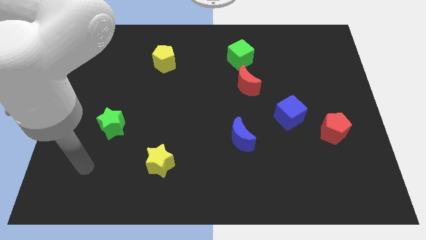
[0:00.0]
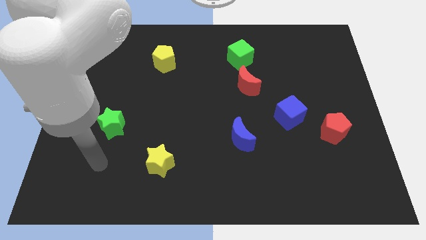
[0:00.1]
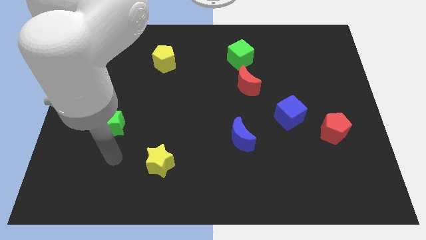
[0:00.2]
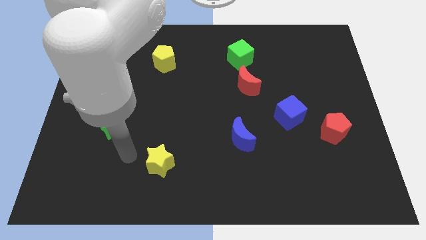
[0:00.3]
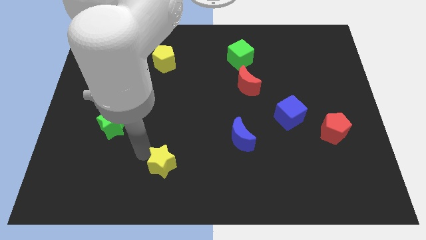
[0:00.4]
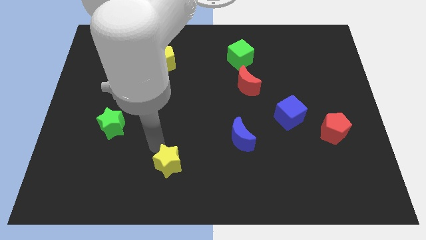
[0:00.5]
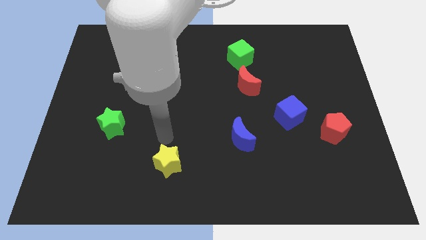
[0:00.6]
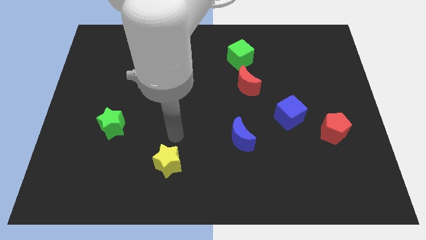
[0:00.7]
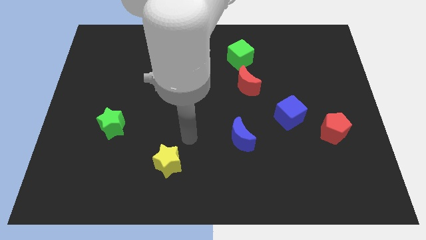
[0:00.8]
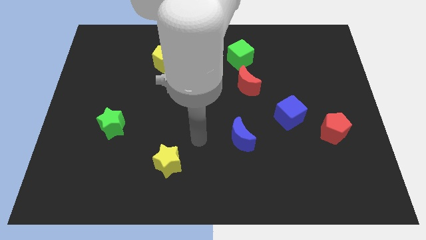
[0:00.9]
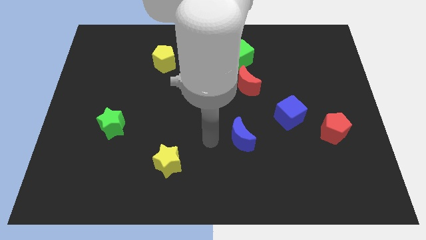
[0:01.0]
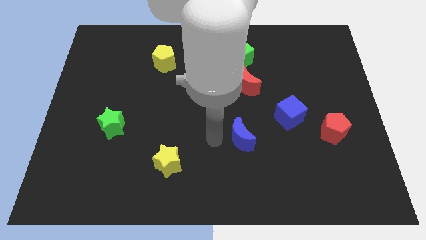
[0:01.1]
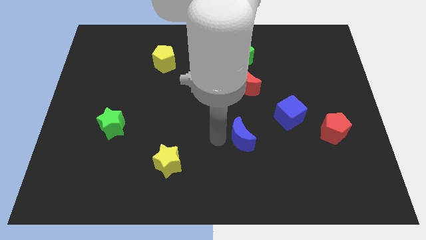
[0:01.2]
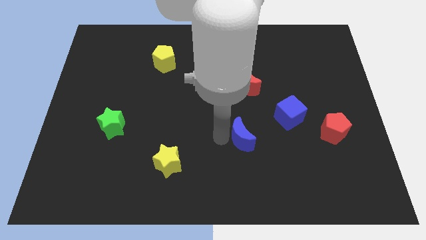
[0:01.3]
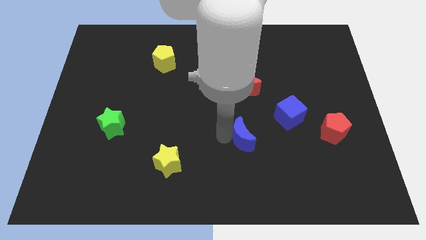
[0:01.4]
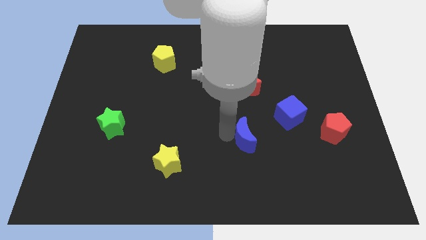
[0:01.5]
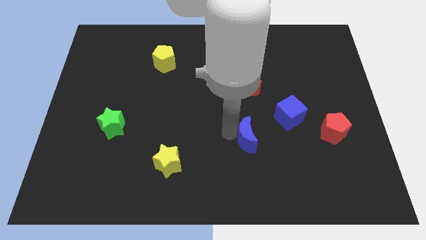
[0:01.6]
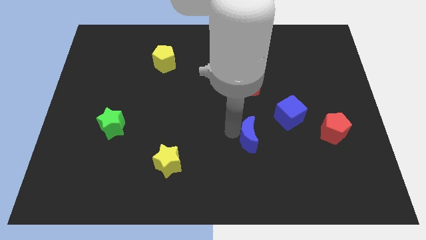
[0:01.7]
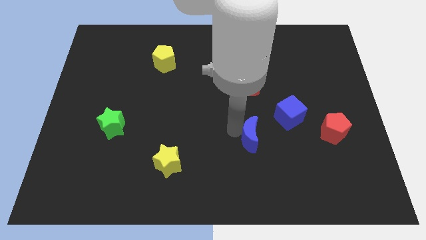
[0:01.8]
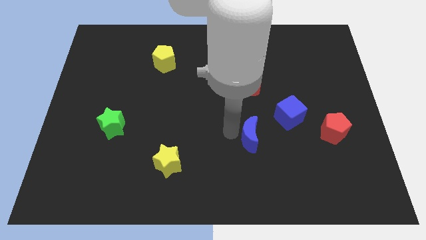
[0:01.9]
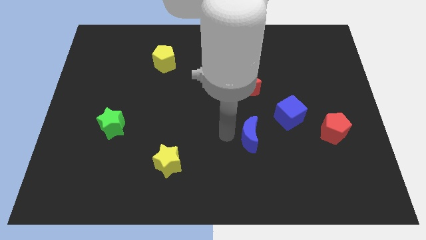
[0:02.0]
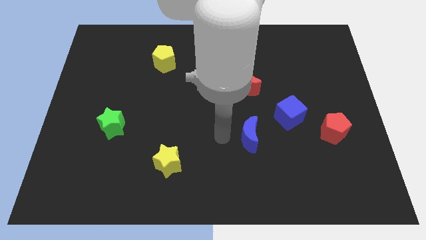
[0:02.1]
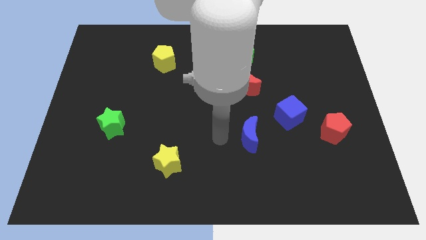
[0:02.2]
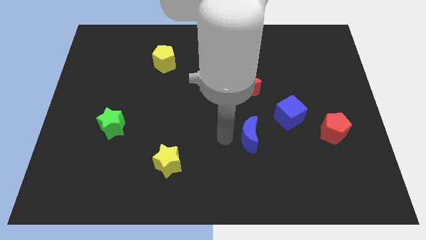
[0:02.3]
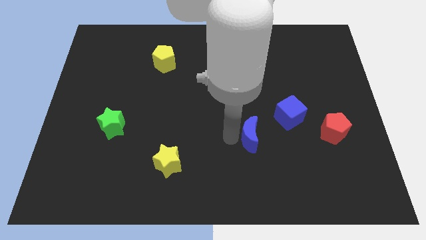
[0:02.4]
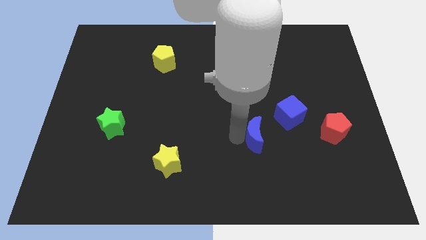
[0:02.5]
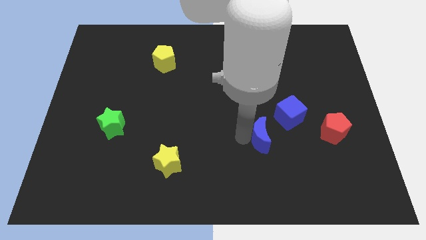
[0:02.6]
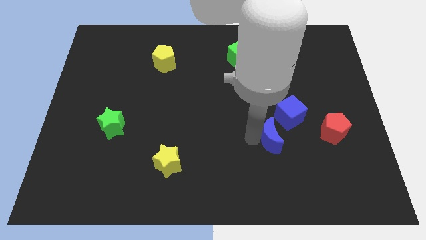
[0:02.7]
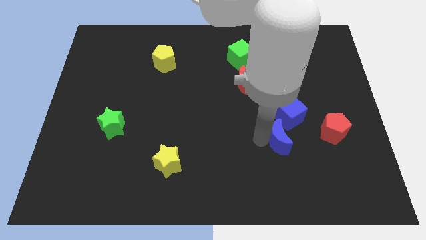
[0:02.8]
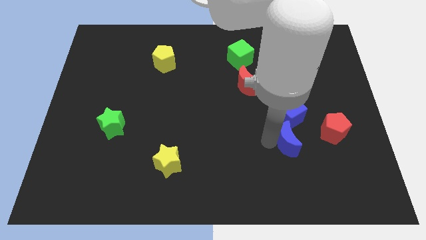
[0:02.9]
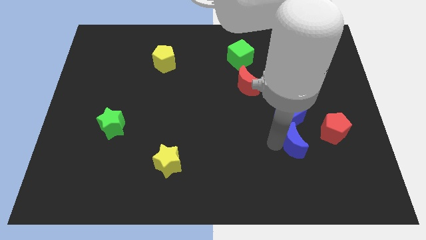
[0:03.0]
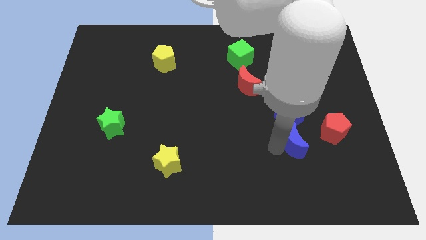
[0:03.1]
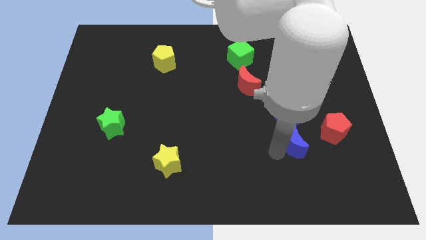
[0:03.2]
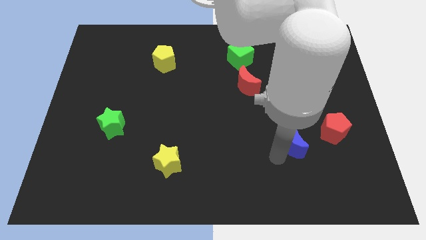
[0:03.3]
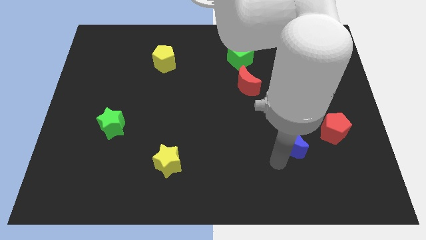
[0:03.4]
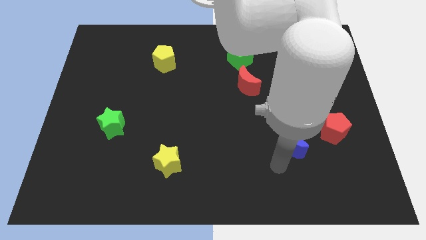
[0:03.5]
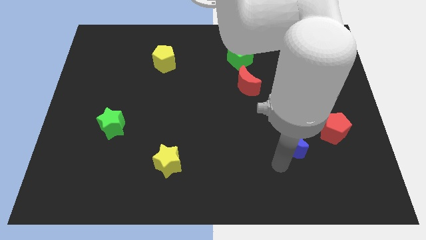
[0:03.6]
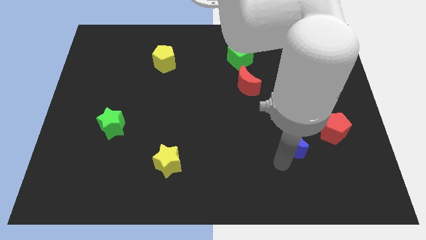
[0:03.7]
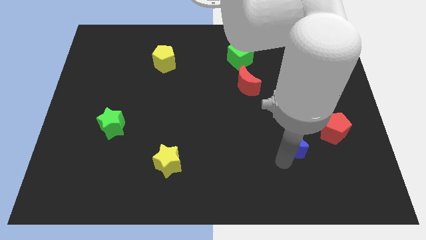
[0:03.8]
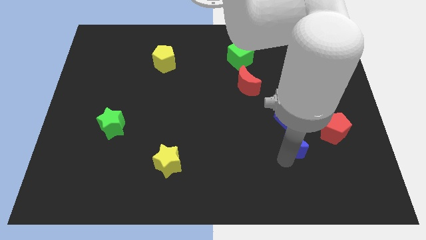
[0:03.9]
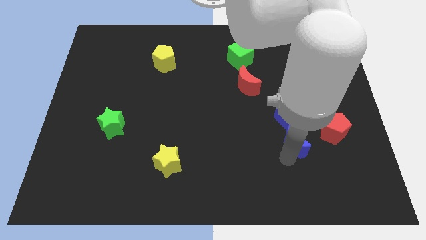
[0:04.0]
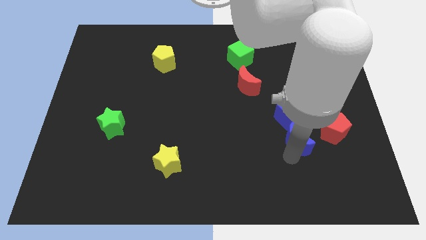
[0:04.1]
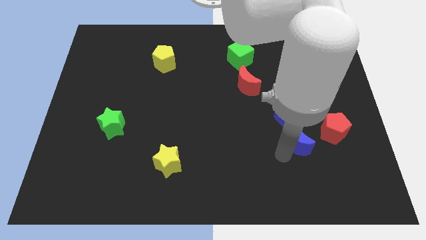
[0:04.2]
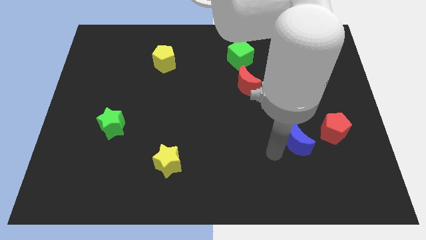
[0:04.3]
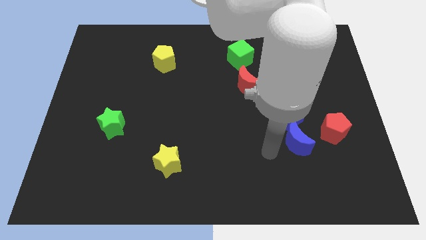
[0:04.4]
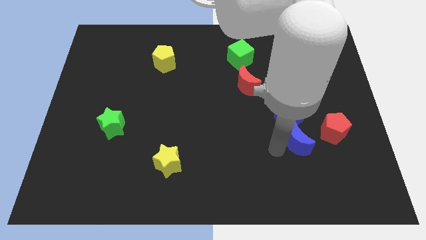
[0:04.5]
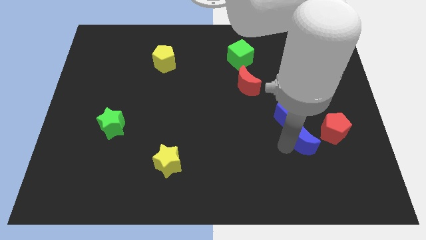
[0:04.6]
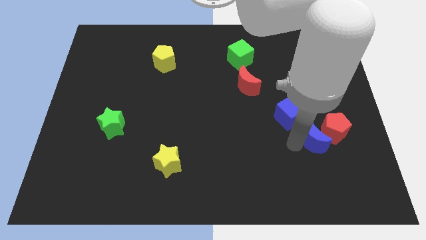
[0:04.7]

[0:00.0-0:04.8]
move the blue moon next to the red pentagon

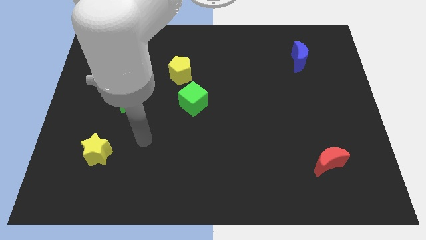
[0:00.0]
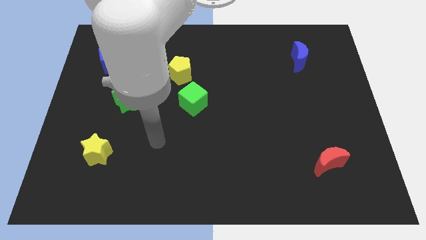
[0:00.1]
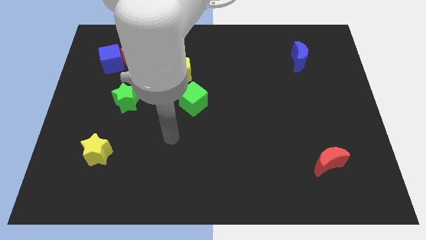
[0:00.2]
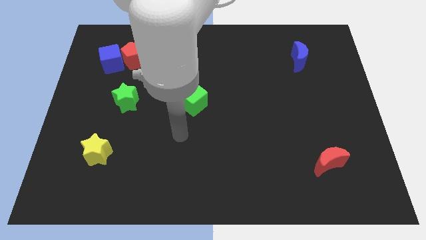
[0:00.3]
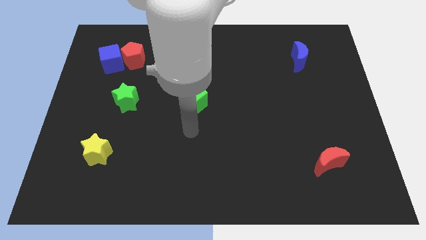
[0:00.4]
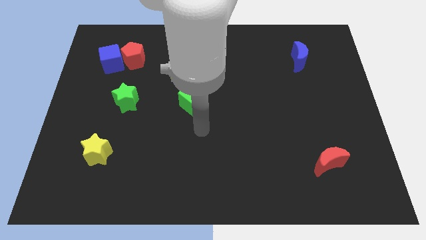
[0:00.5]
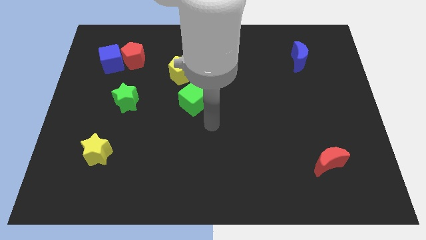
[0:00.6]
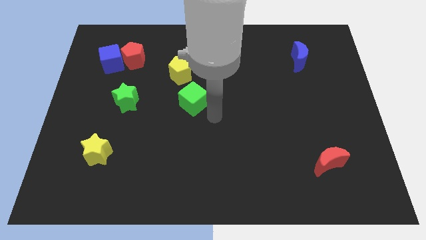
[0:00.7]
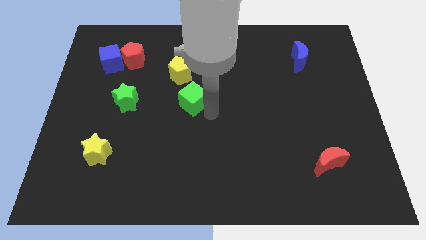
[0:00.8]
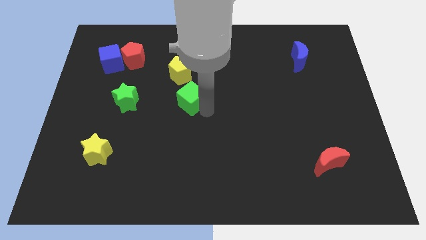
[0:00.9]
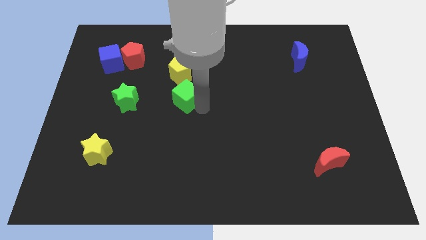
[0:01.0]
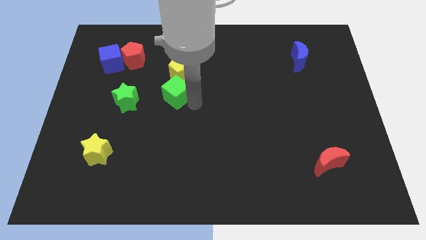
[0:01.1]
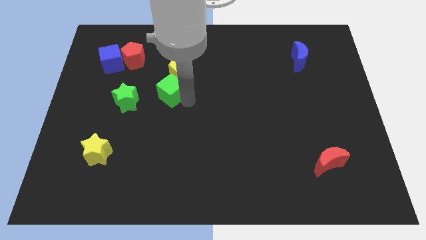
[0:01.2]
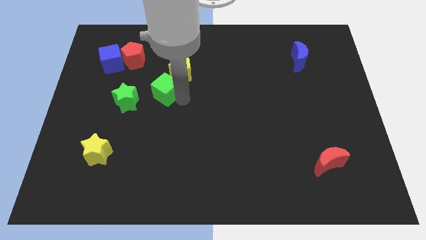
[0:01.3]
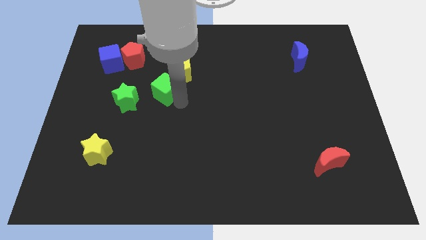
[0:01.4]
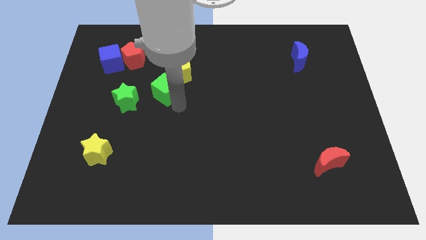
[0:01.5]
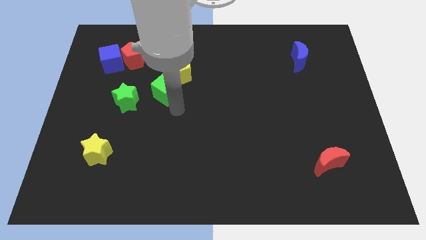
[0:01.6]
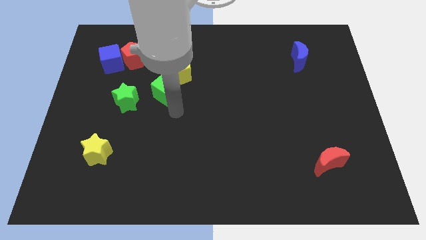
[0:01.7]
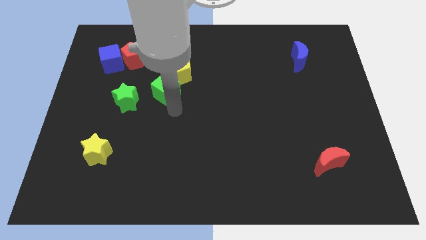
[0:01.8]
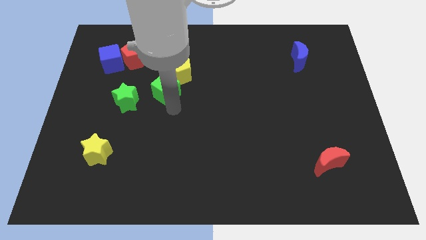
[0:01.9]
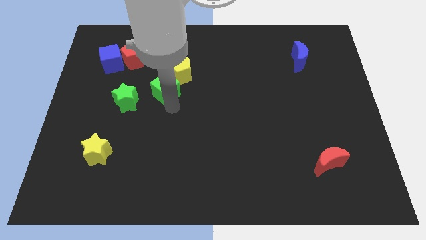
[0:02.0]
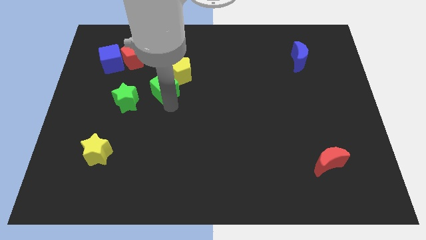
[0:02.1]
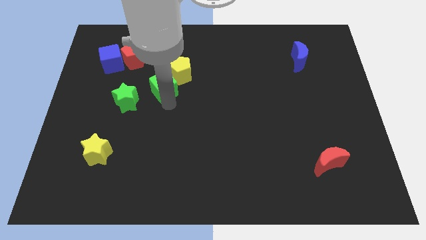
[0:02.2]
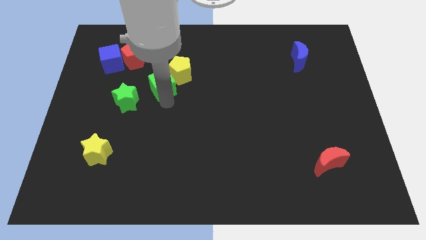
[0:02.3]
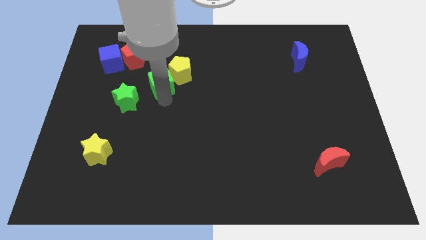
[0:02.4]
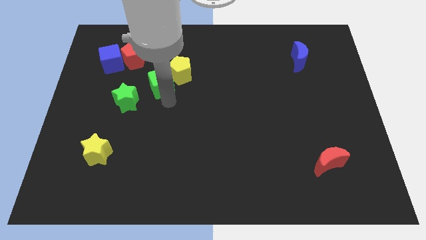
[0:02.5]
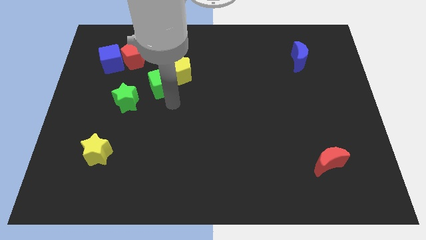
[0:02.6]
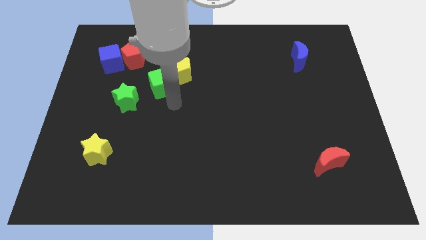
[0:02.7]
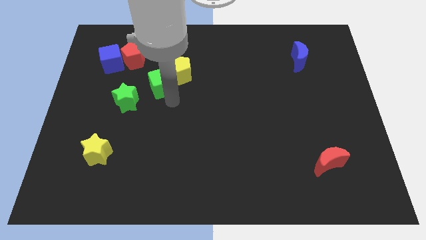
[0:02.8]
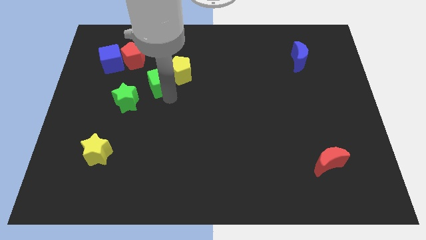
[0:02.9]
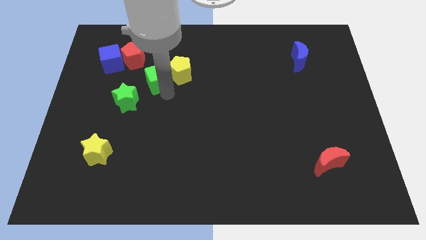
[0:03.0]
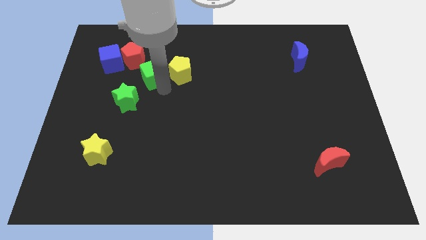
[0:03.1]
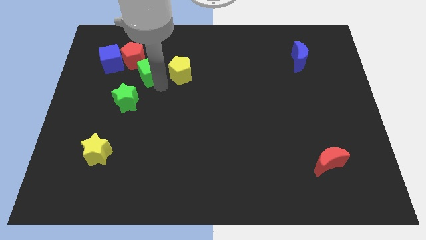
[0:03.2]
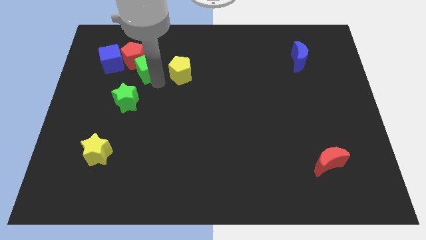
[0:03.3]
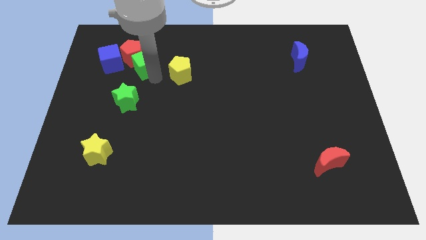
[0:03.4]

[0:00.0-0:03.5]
slide the green cube close to the red pentagon
